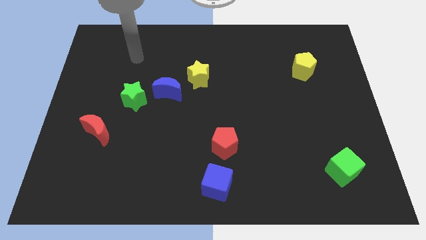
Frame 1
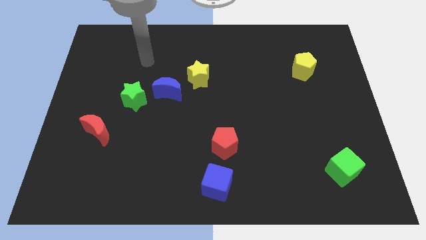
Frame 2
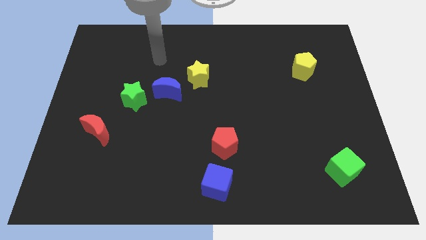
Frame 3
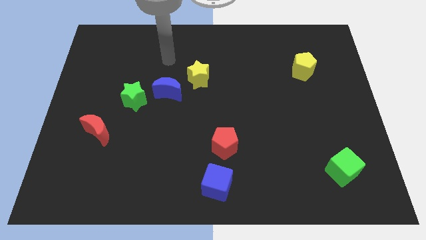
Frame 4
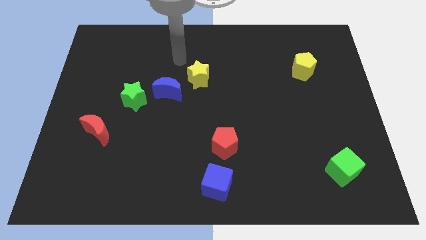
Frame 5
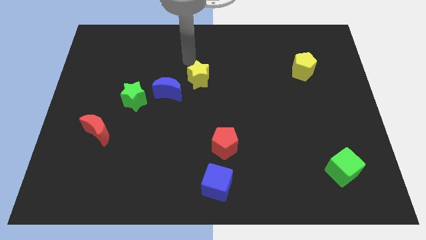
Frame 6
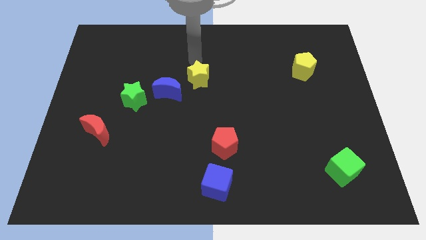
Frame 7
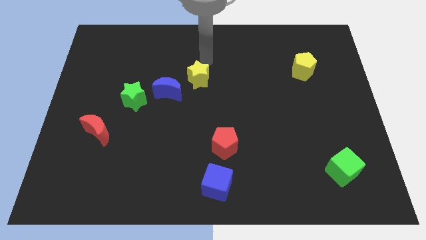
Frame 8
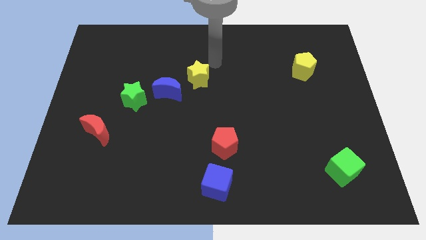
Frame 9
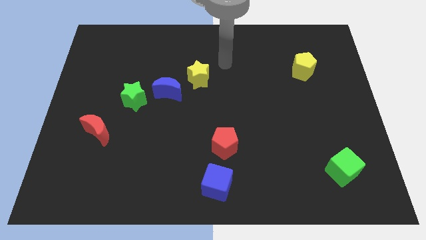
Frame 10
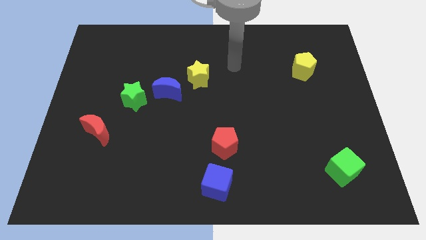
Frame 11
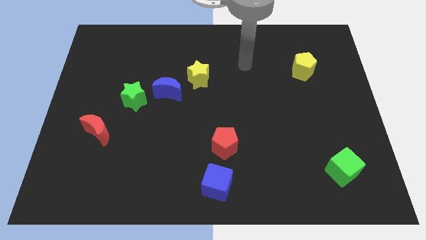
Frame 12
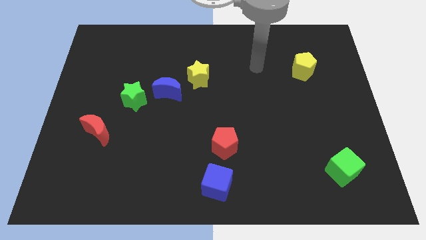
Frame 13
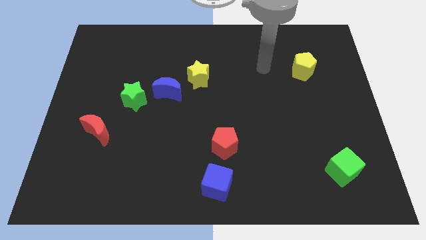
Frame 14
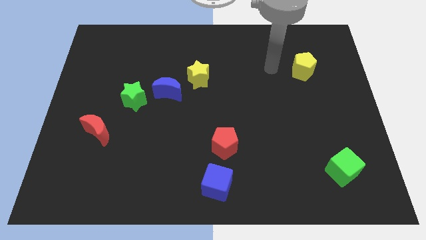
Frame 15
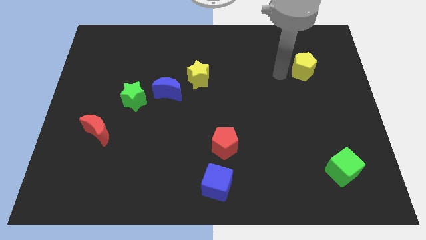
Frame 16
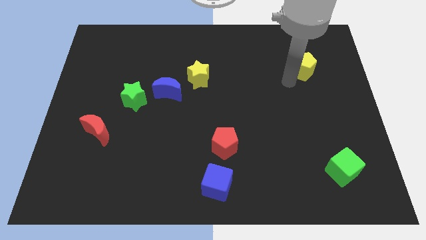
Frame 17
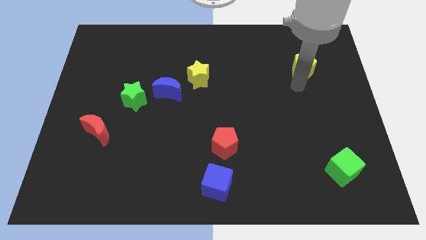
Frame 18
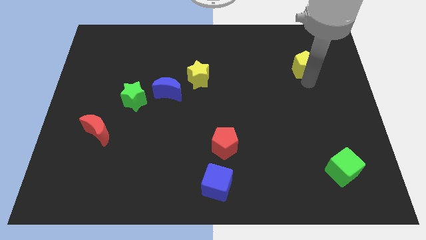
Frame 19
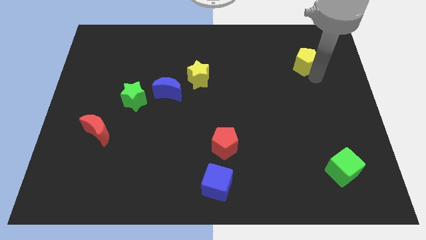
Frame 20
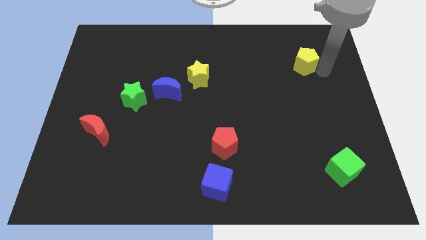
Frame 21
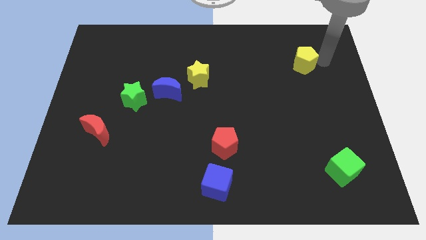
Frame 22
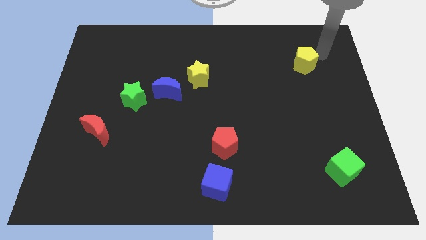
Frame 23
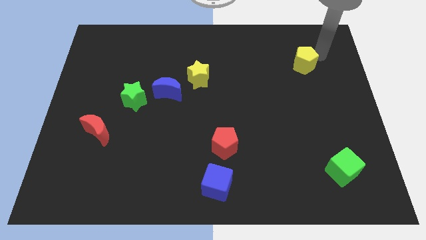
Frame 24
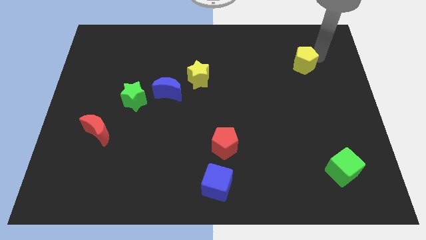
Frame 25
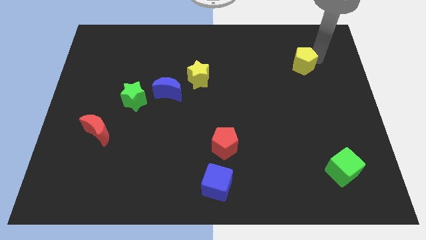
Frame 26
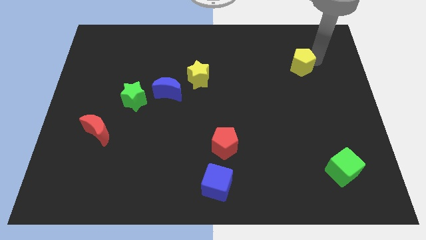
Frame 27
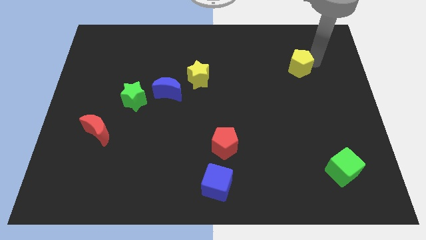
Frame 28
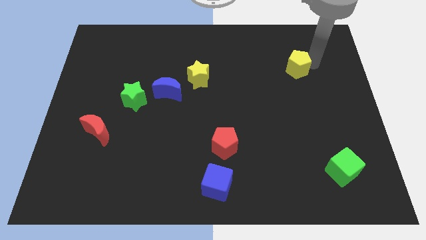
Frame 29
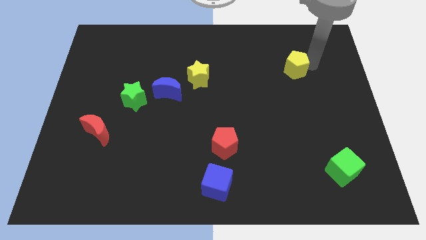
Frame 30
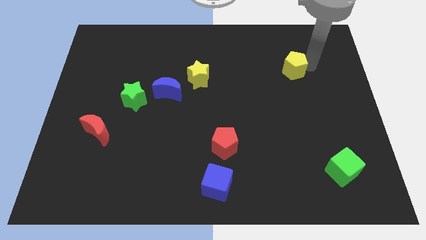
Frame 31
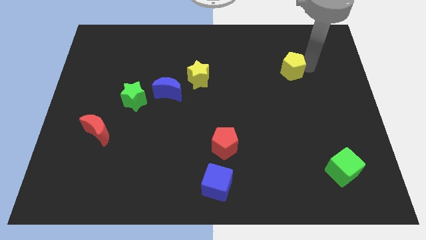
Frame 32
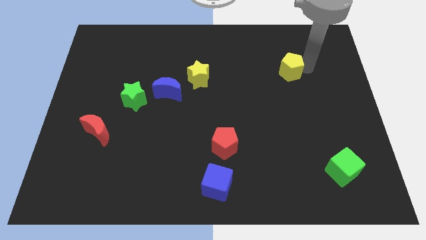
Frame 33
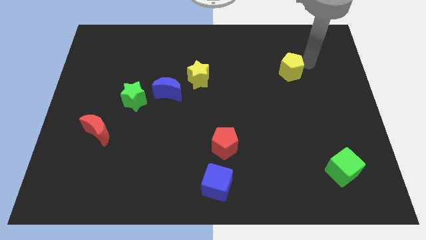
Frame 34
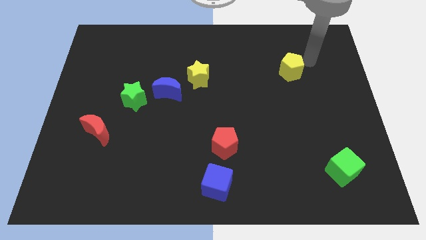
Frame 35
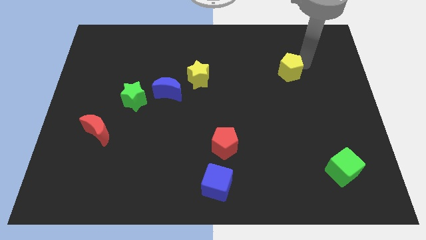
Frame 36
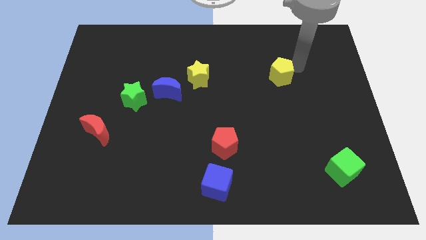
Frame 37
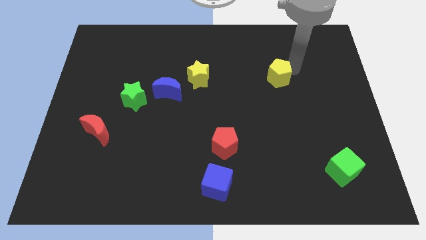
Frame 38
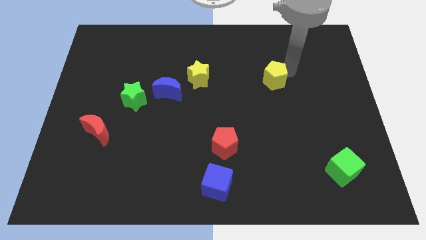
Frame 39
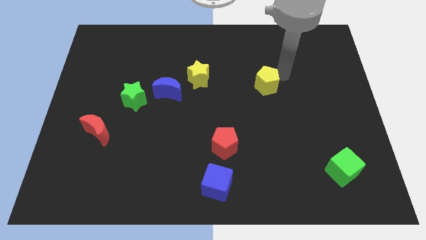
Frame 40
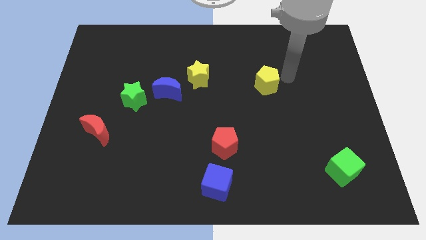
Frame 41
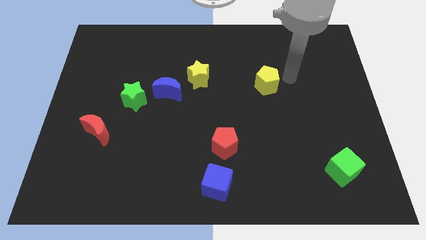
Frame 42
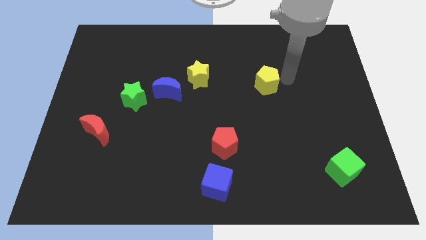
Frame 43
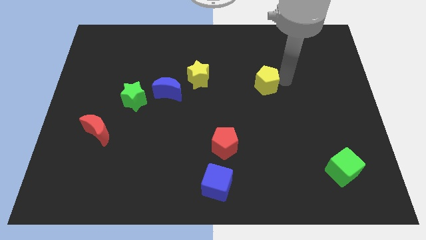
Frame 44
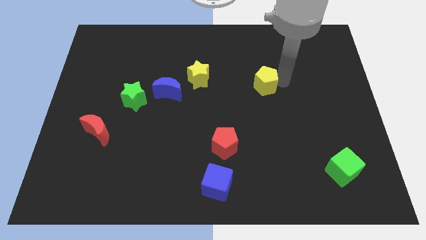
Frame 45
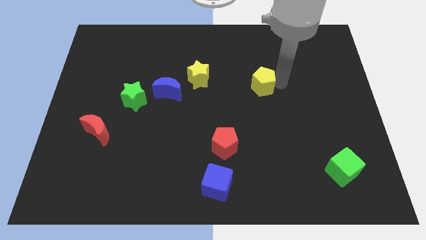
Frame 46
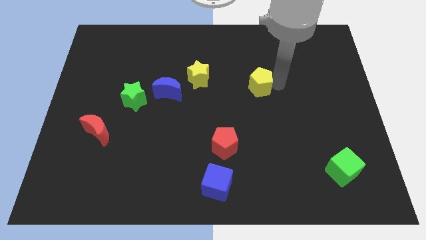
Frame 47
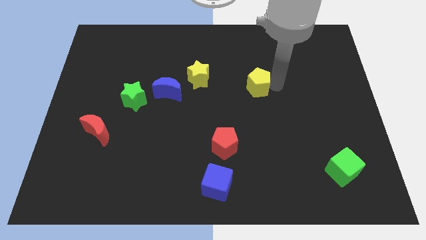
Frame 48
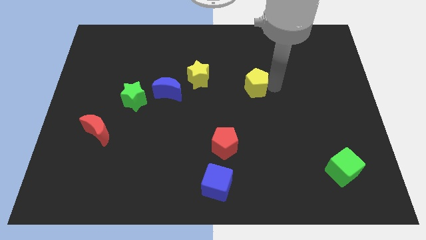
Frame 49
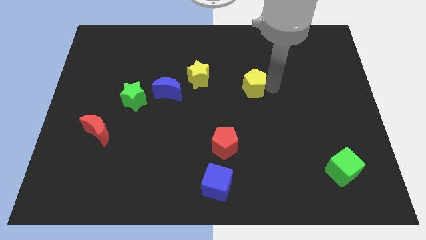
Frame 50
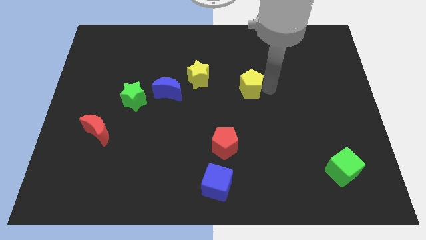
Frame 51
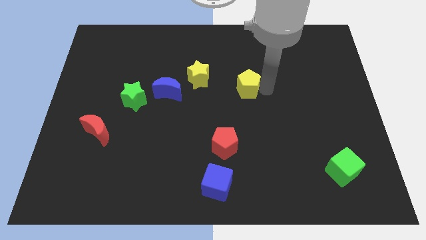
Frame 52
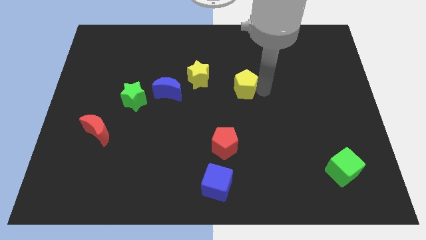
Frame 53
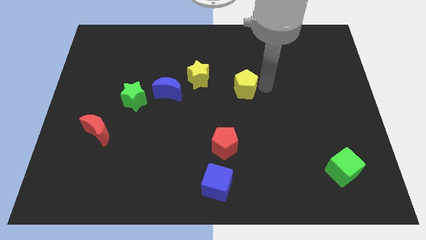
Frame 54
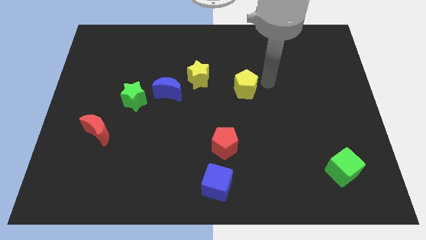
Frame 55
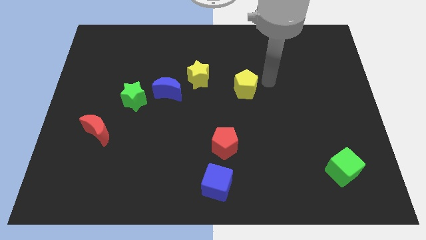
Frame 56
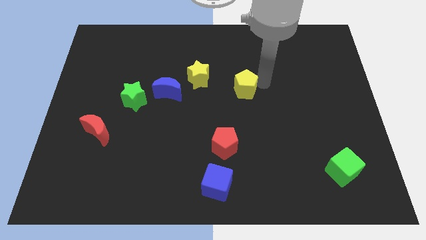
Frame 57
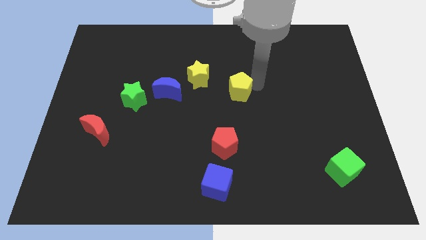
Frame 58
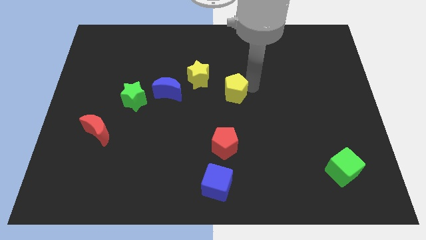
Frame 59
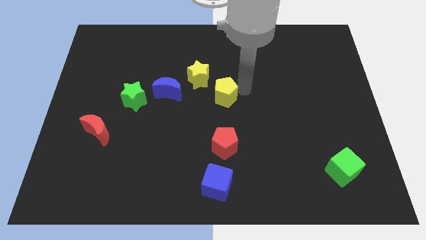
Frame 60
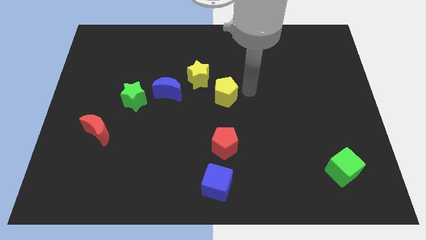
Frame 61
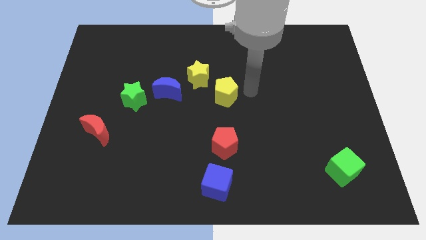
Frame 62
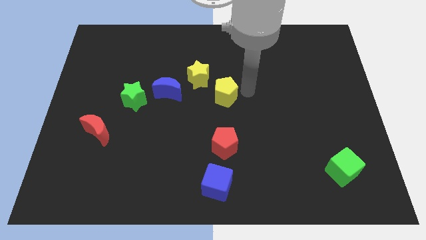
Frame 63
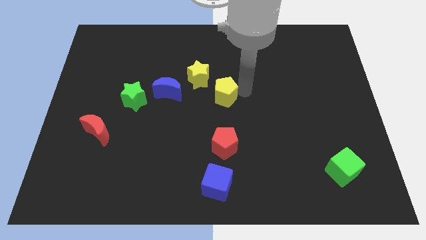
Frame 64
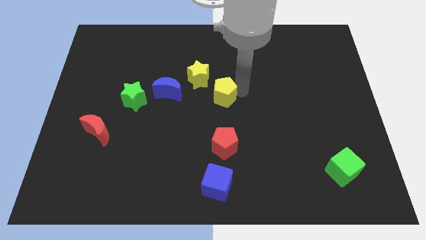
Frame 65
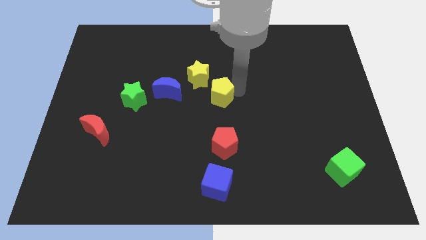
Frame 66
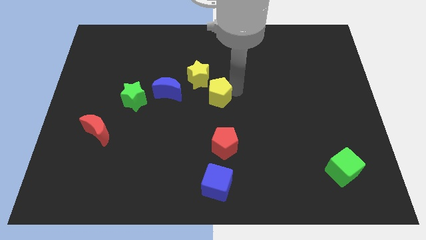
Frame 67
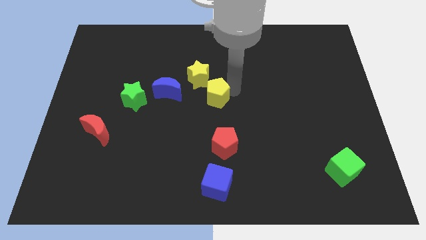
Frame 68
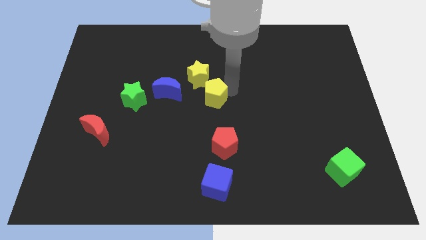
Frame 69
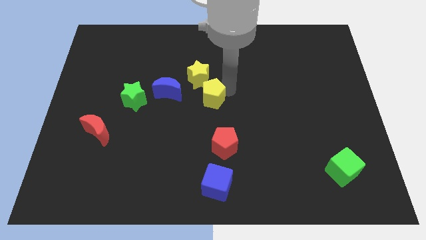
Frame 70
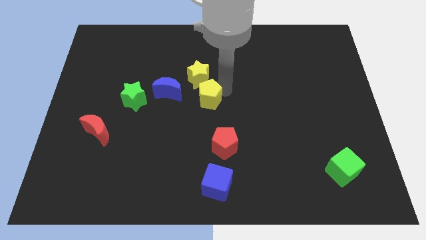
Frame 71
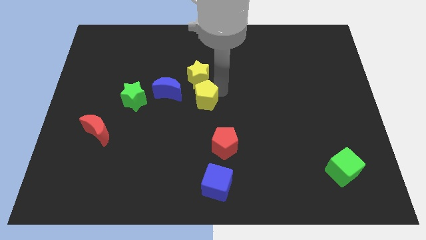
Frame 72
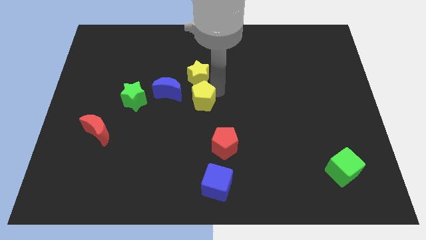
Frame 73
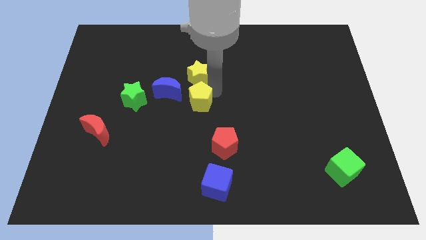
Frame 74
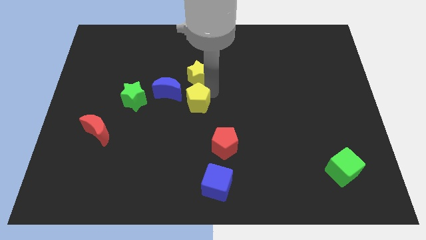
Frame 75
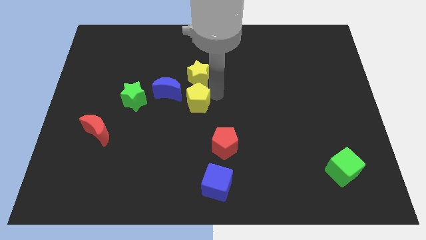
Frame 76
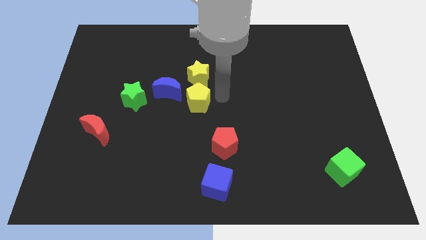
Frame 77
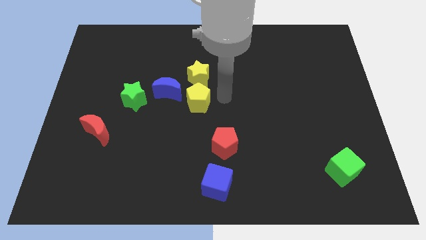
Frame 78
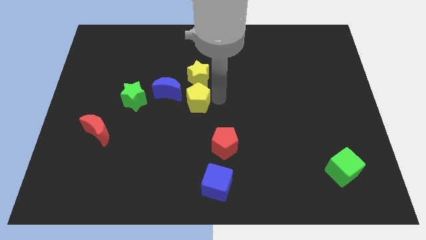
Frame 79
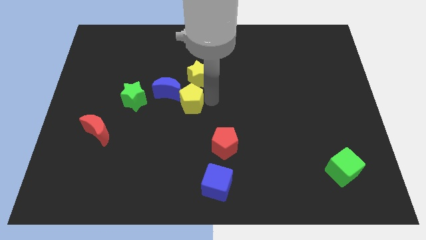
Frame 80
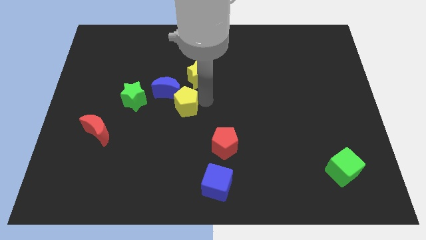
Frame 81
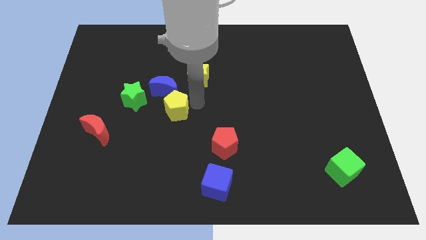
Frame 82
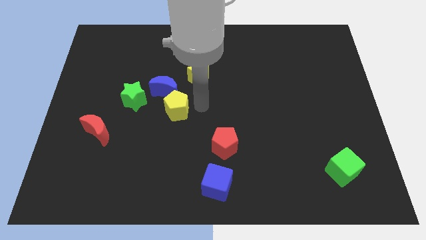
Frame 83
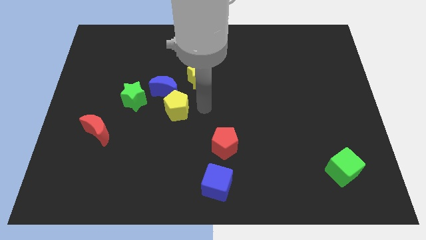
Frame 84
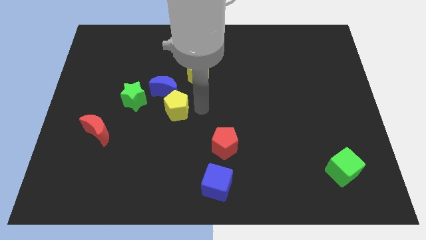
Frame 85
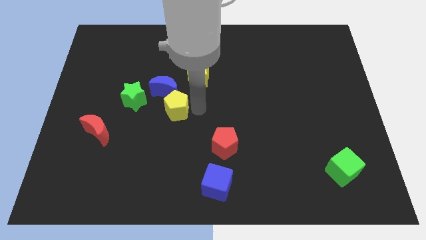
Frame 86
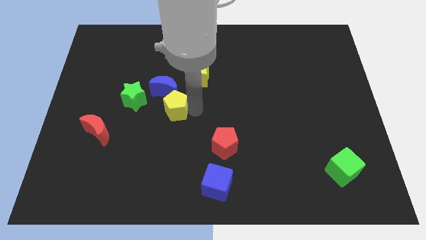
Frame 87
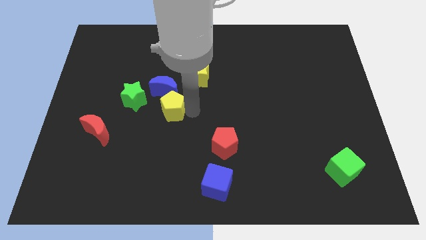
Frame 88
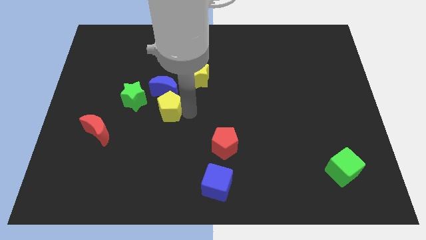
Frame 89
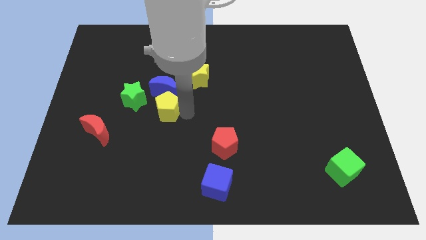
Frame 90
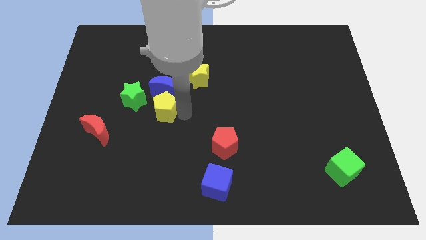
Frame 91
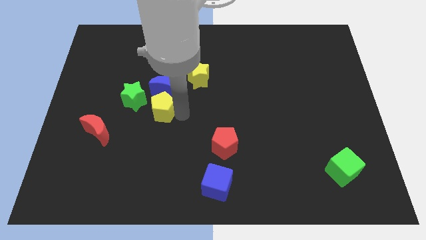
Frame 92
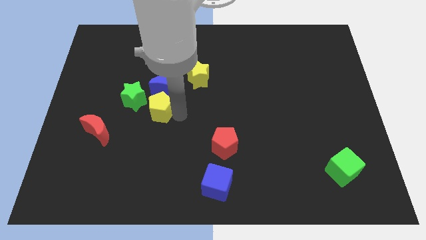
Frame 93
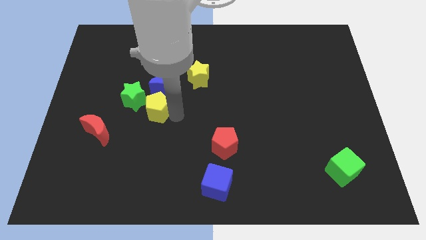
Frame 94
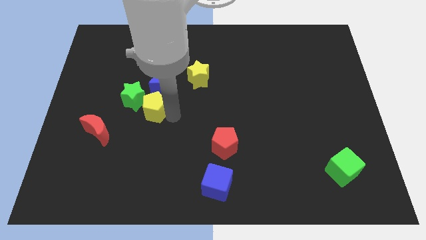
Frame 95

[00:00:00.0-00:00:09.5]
put the yellow pentagon next to the green star
